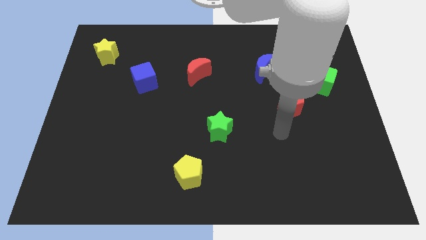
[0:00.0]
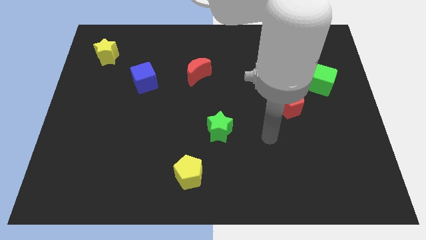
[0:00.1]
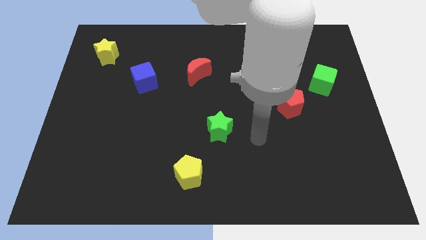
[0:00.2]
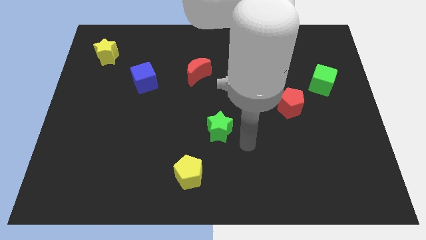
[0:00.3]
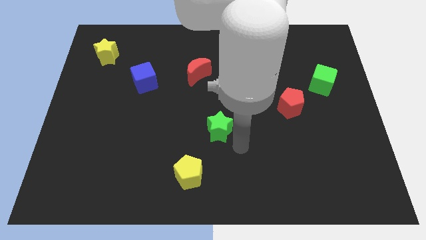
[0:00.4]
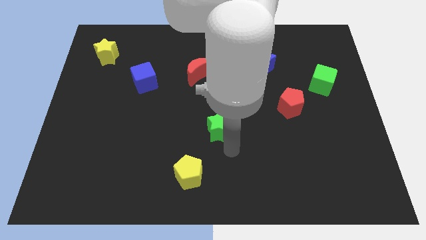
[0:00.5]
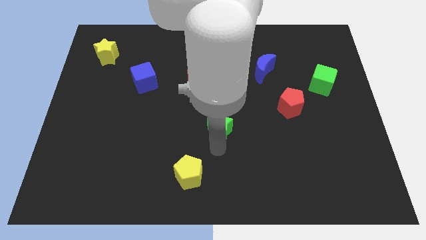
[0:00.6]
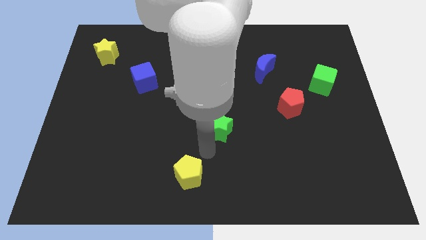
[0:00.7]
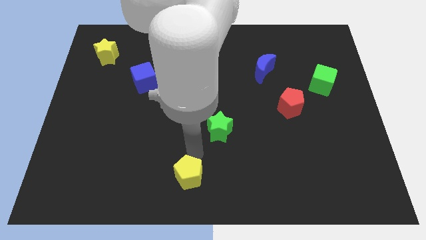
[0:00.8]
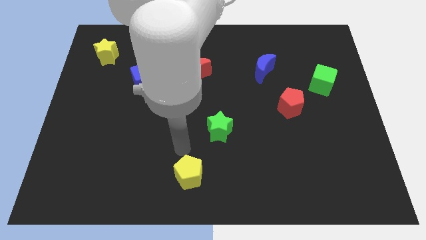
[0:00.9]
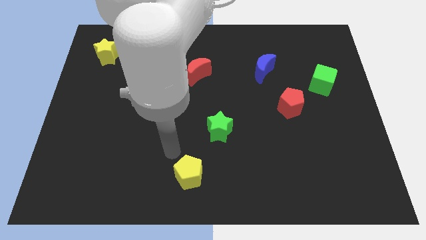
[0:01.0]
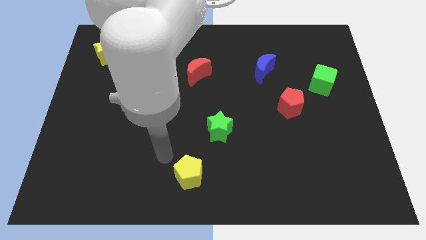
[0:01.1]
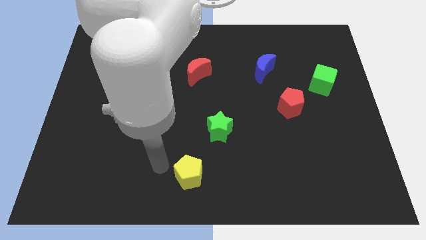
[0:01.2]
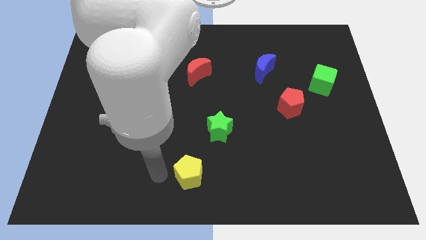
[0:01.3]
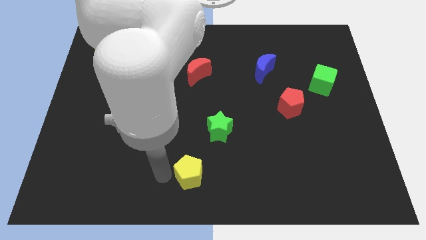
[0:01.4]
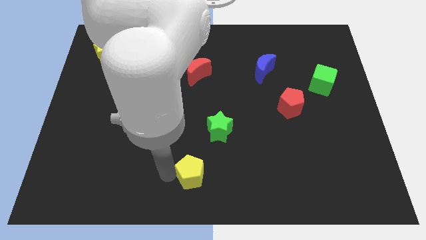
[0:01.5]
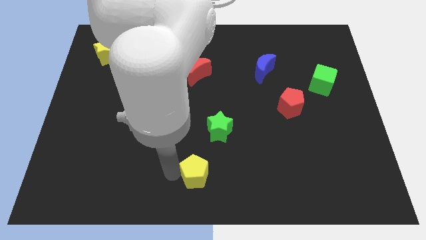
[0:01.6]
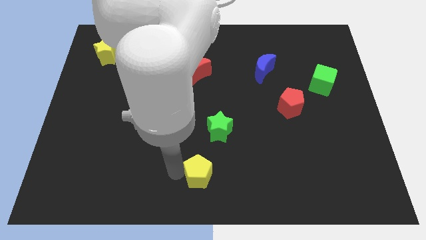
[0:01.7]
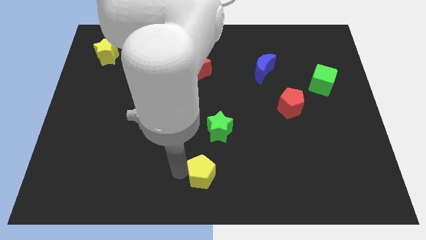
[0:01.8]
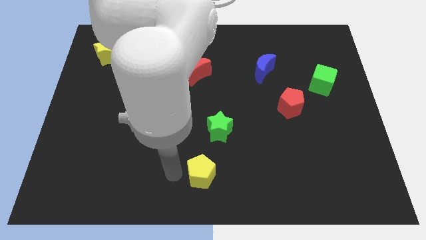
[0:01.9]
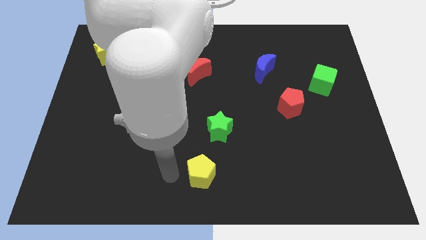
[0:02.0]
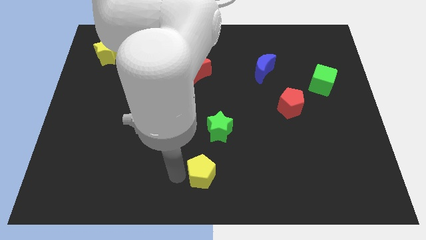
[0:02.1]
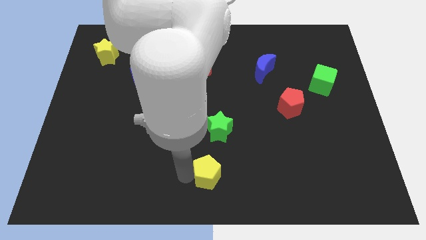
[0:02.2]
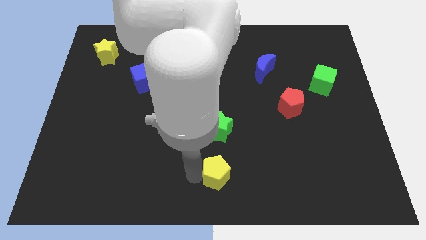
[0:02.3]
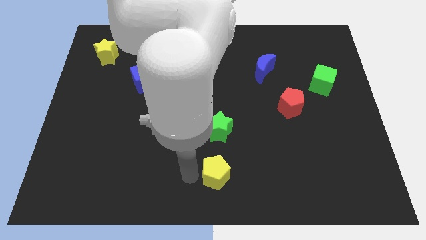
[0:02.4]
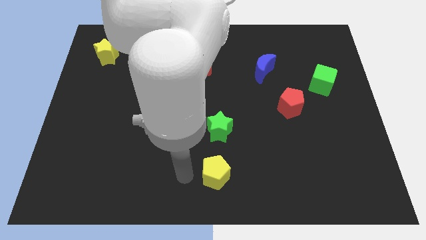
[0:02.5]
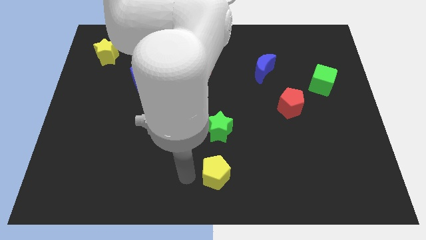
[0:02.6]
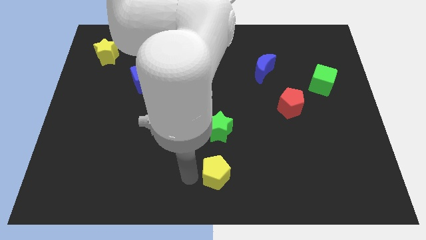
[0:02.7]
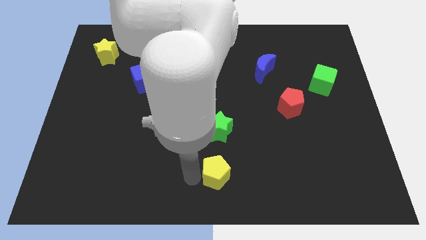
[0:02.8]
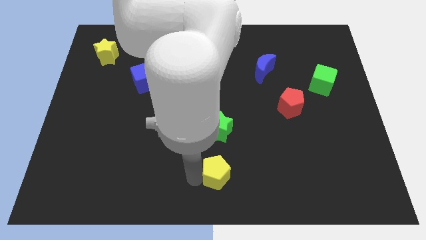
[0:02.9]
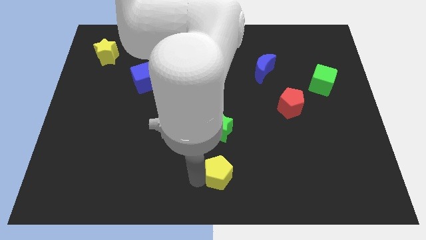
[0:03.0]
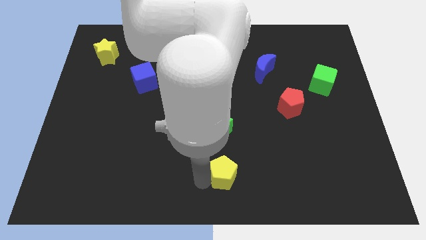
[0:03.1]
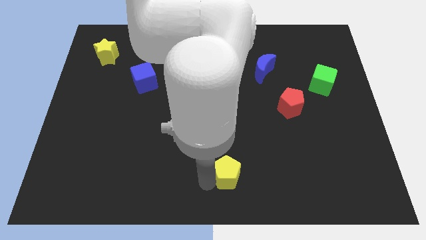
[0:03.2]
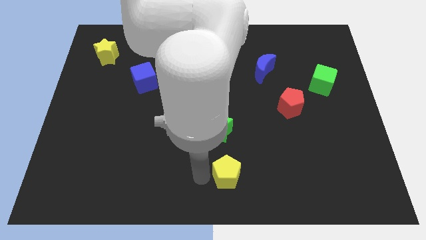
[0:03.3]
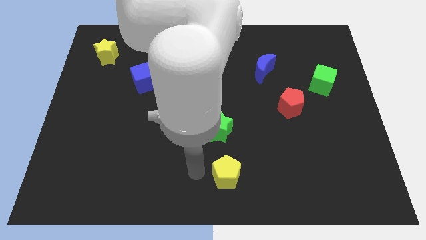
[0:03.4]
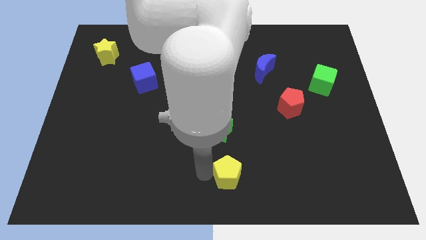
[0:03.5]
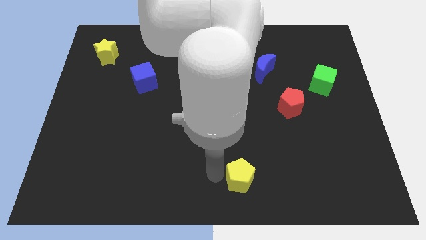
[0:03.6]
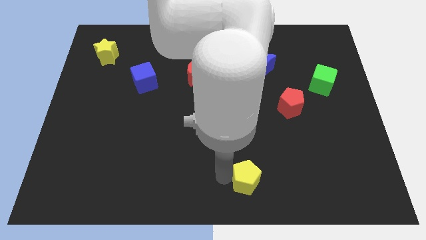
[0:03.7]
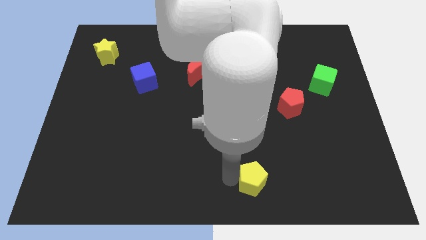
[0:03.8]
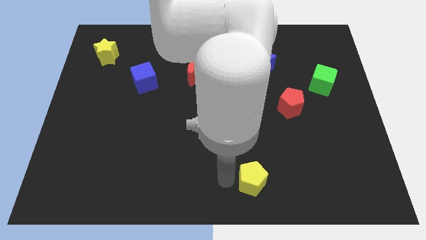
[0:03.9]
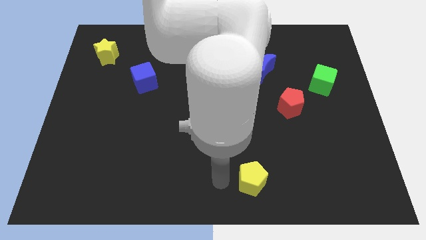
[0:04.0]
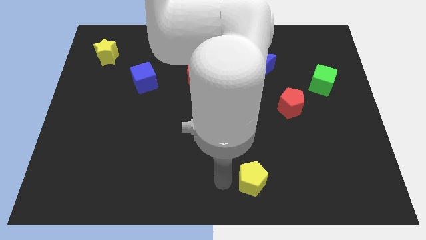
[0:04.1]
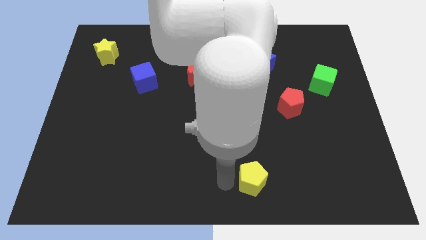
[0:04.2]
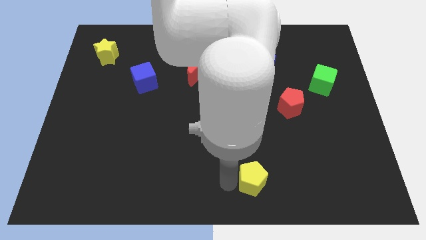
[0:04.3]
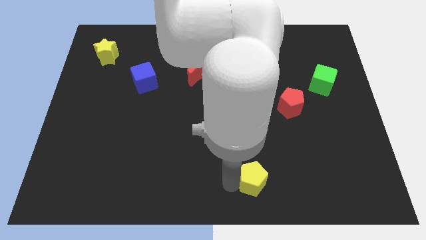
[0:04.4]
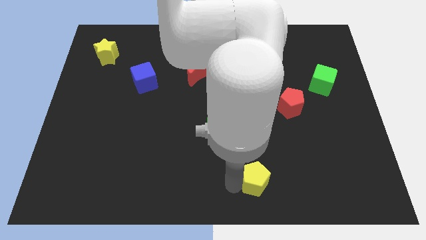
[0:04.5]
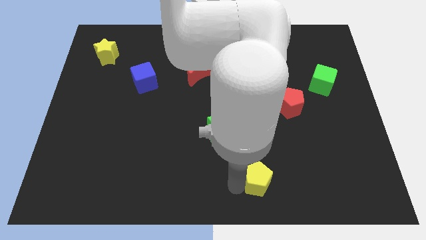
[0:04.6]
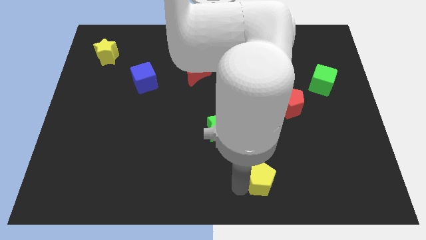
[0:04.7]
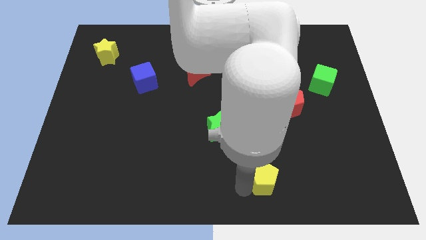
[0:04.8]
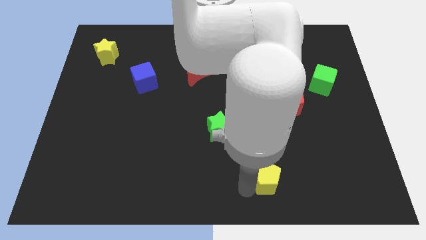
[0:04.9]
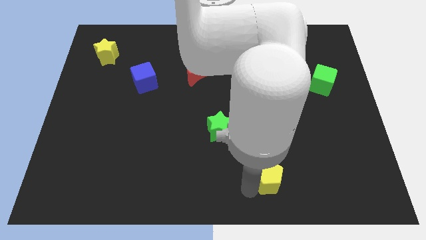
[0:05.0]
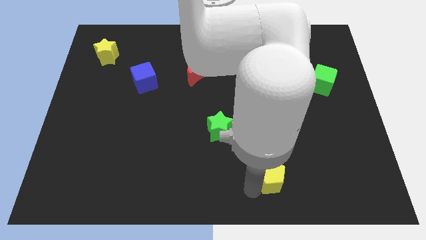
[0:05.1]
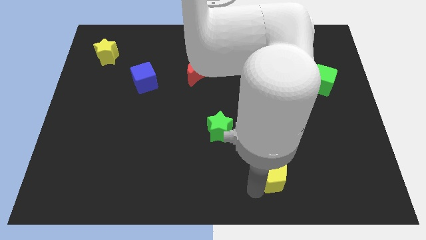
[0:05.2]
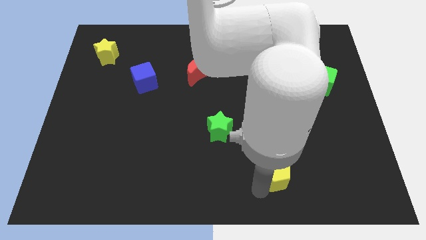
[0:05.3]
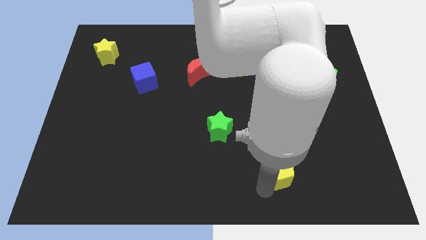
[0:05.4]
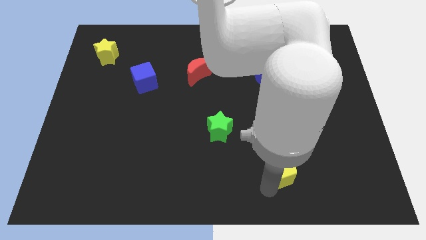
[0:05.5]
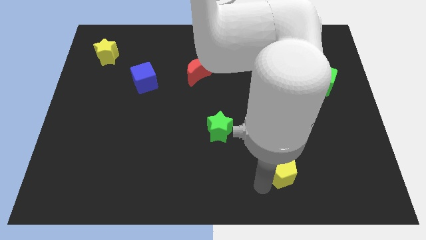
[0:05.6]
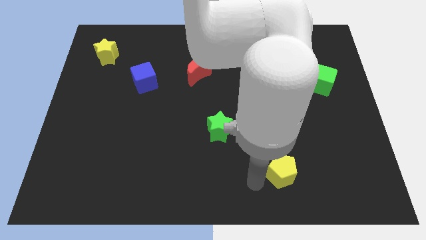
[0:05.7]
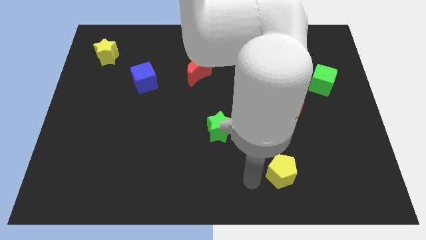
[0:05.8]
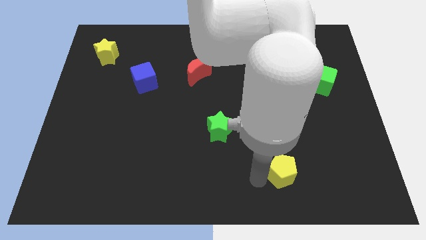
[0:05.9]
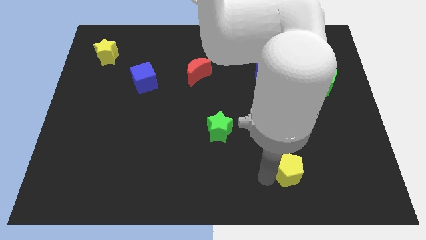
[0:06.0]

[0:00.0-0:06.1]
push the yellow pentagon to the right

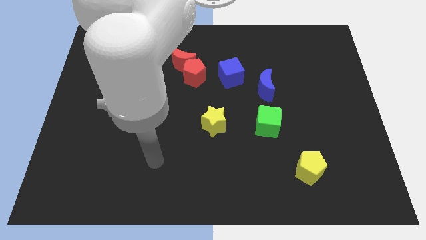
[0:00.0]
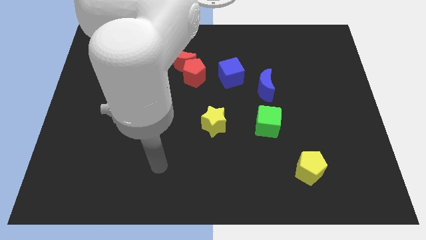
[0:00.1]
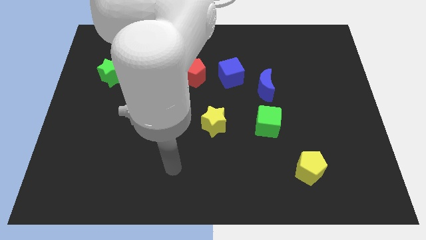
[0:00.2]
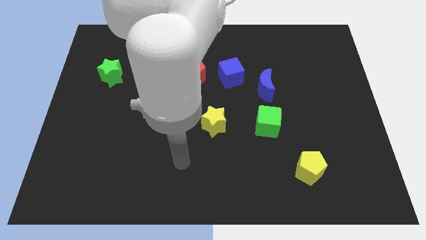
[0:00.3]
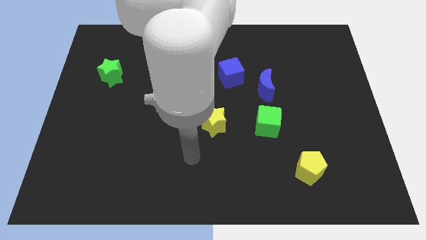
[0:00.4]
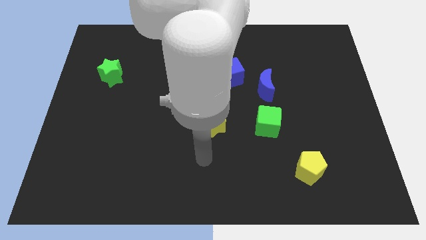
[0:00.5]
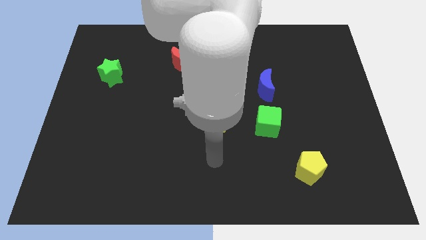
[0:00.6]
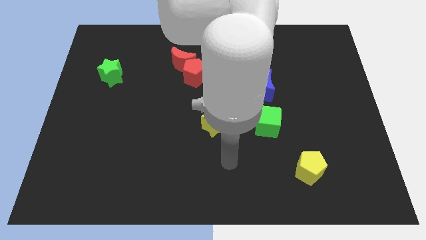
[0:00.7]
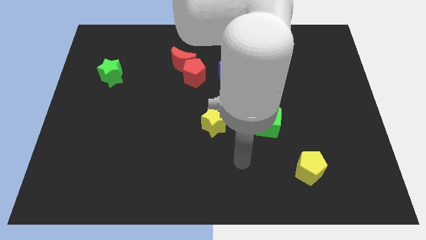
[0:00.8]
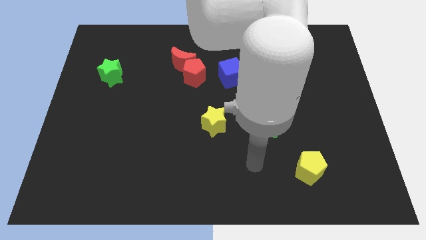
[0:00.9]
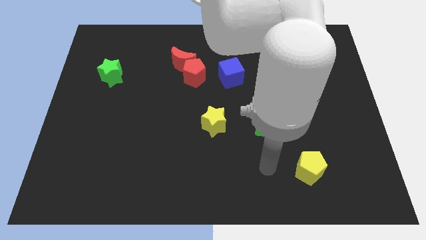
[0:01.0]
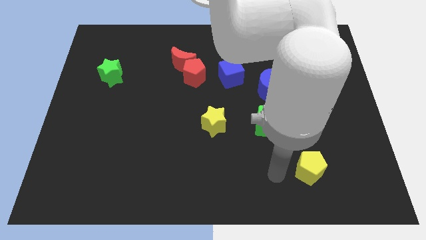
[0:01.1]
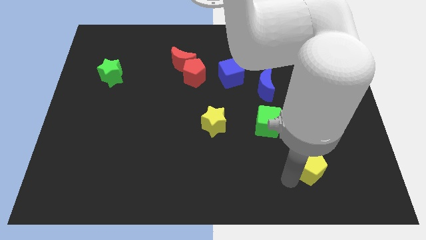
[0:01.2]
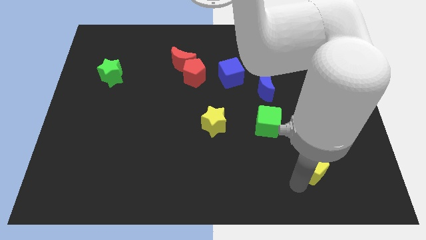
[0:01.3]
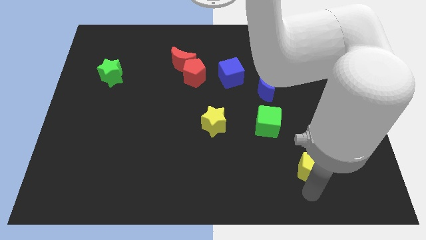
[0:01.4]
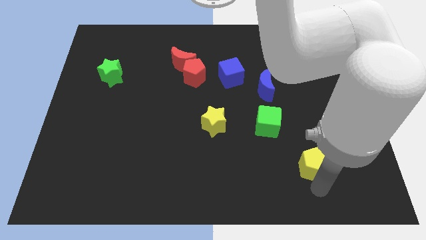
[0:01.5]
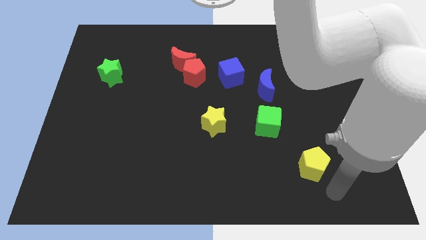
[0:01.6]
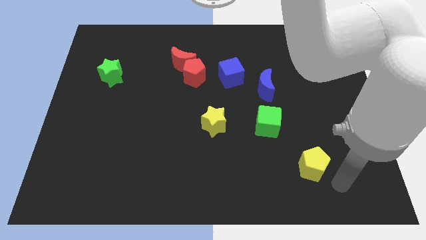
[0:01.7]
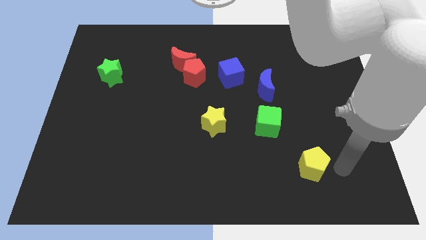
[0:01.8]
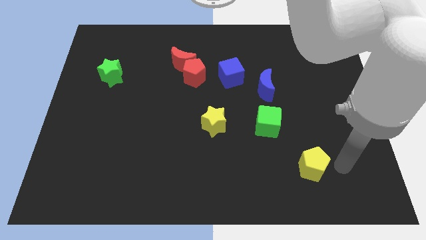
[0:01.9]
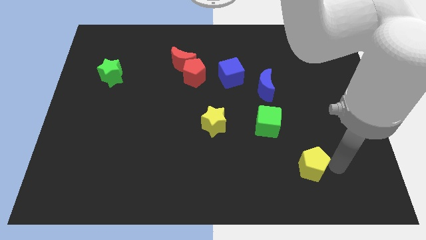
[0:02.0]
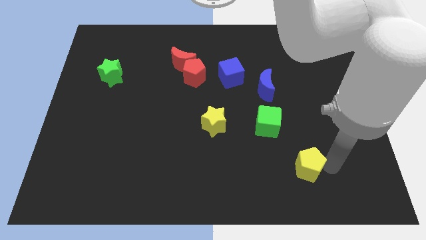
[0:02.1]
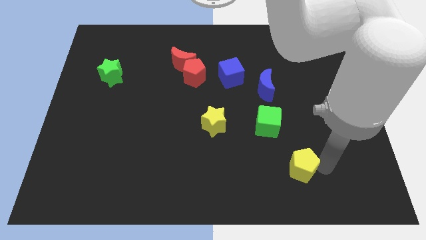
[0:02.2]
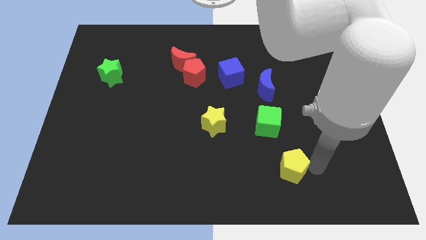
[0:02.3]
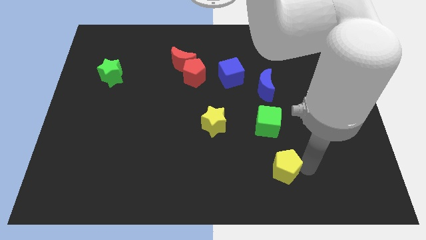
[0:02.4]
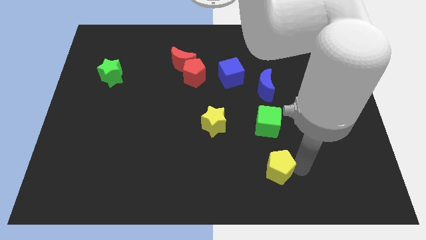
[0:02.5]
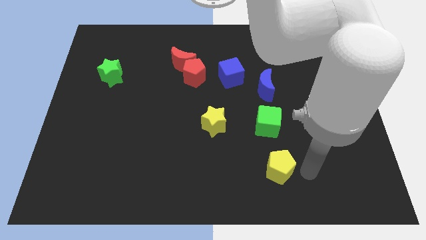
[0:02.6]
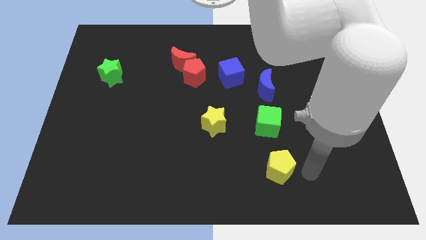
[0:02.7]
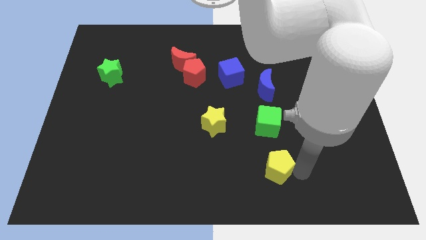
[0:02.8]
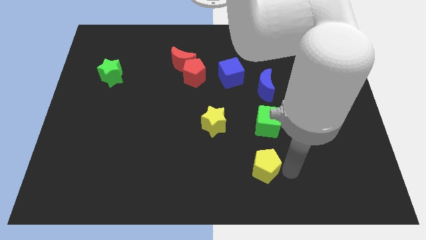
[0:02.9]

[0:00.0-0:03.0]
push the yellow pentagon slightly left
